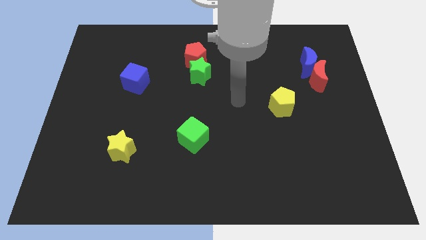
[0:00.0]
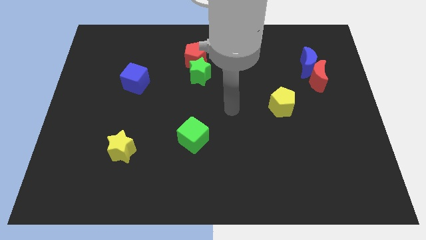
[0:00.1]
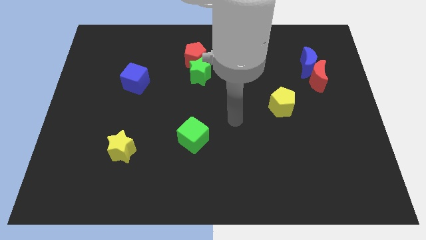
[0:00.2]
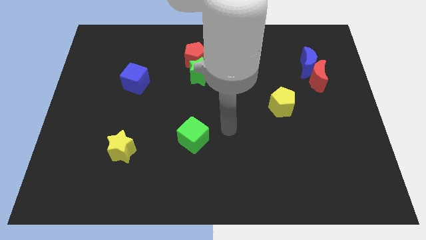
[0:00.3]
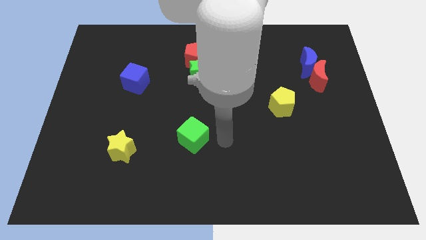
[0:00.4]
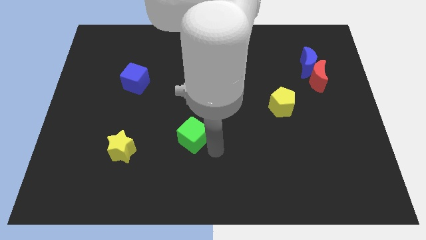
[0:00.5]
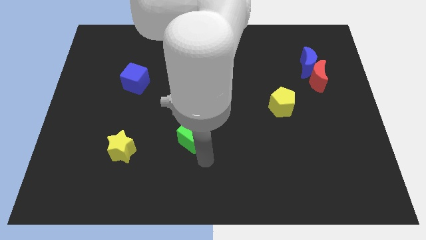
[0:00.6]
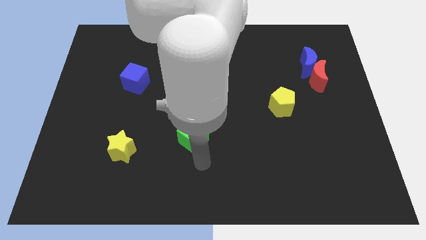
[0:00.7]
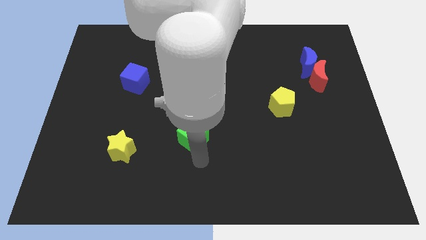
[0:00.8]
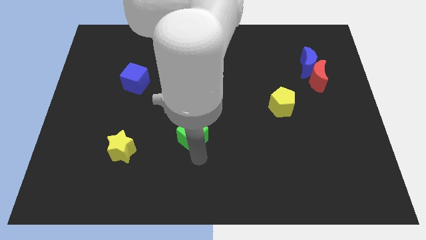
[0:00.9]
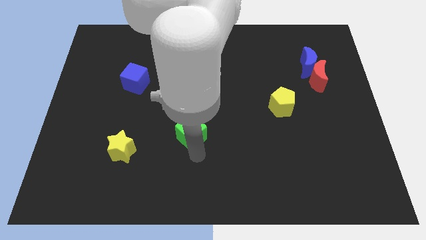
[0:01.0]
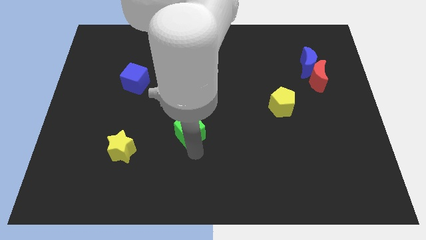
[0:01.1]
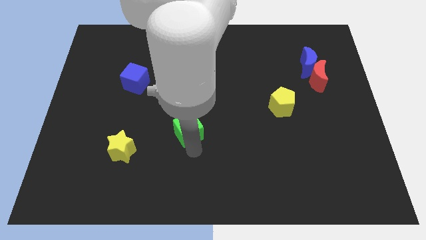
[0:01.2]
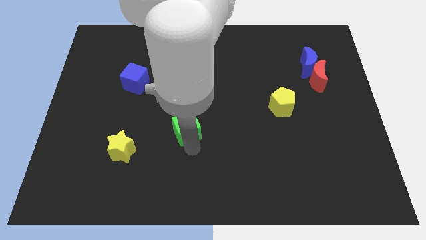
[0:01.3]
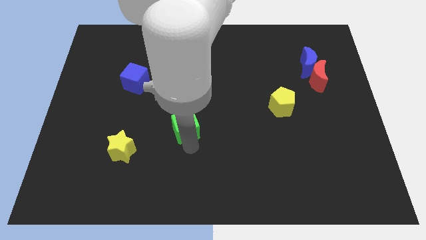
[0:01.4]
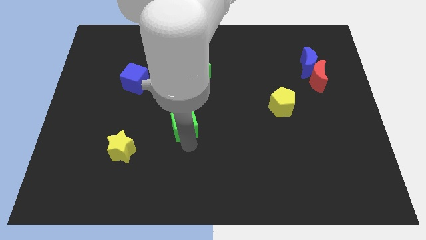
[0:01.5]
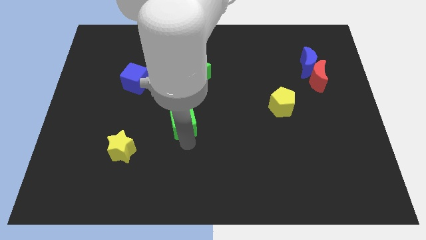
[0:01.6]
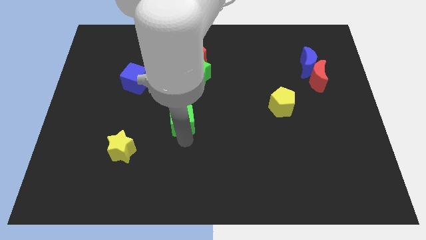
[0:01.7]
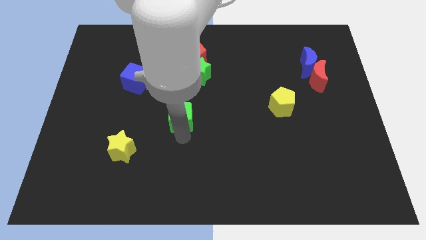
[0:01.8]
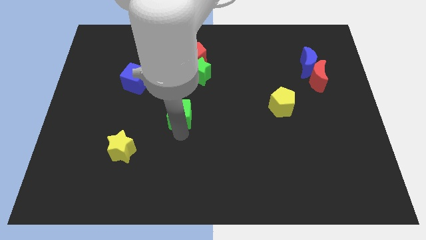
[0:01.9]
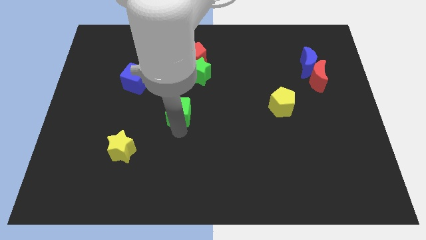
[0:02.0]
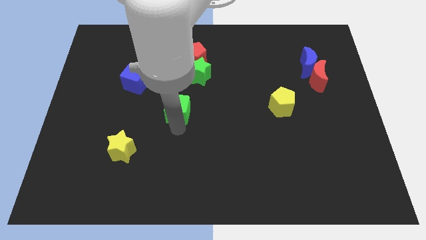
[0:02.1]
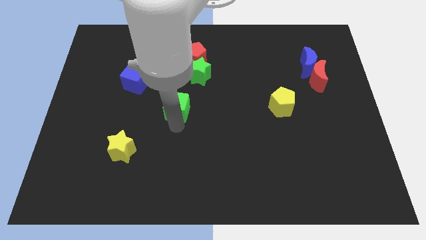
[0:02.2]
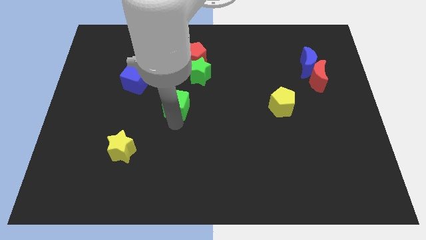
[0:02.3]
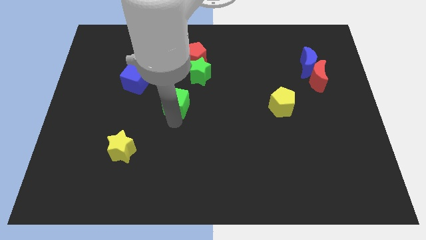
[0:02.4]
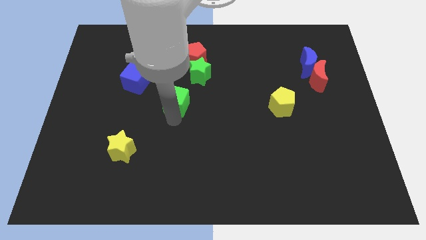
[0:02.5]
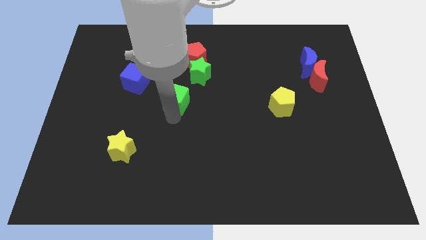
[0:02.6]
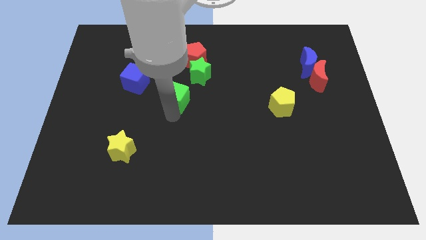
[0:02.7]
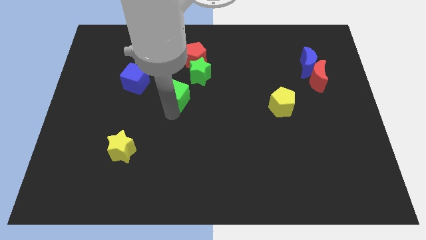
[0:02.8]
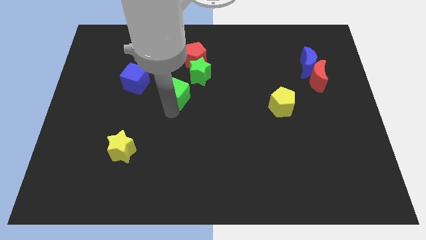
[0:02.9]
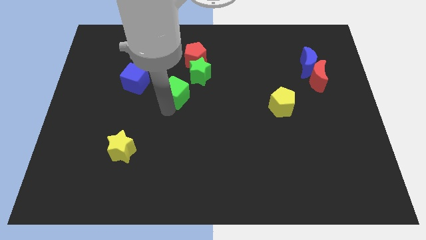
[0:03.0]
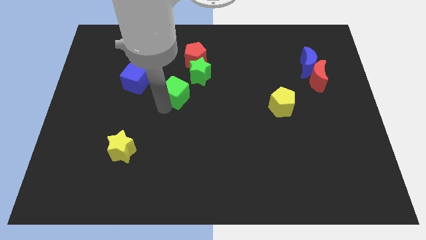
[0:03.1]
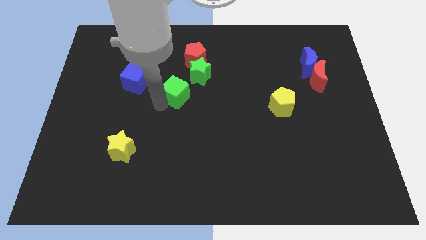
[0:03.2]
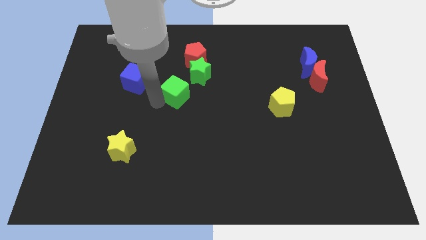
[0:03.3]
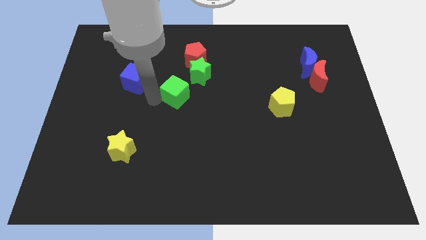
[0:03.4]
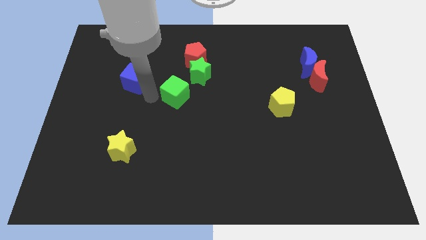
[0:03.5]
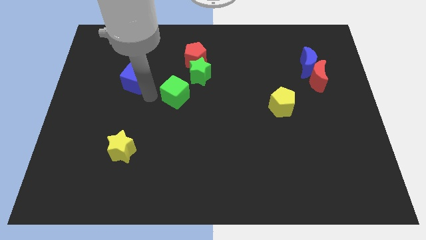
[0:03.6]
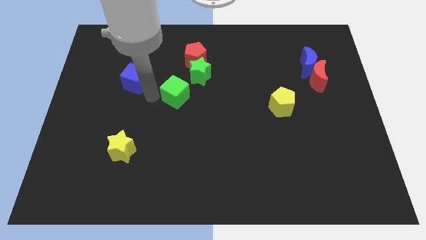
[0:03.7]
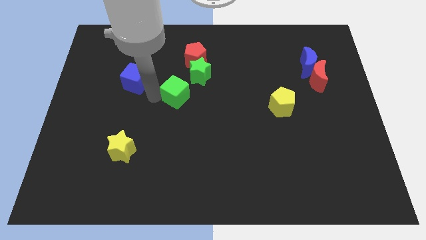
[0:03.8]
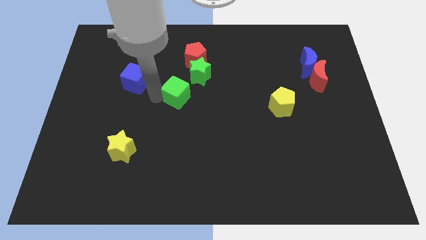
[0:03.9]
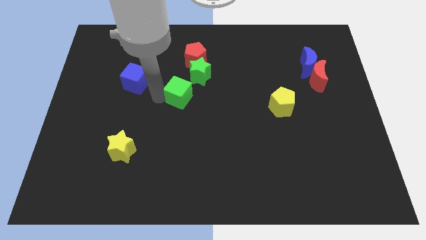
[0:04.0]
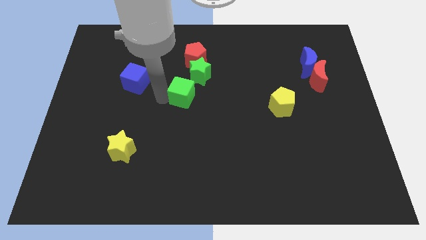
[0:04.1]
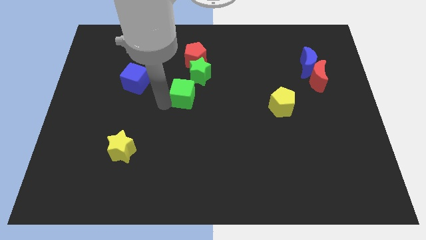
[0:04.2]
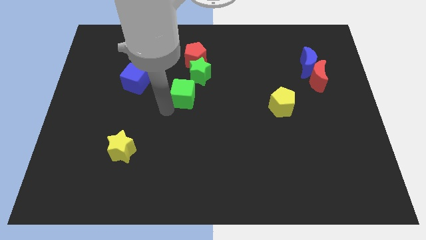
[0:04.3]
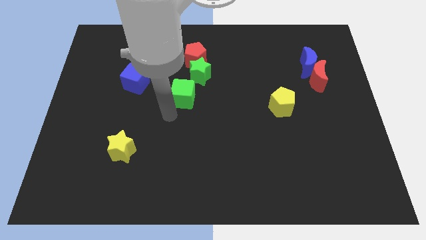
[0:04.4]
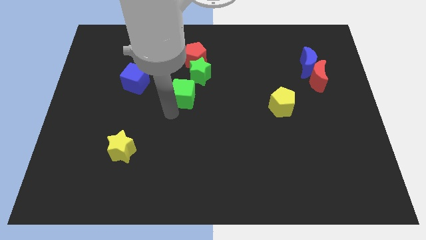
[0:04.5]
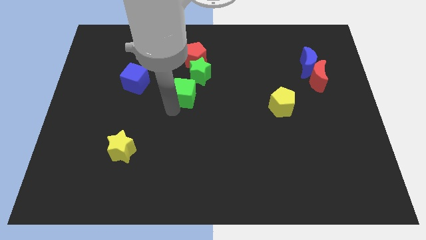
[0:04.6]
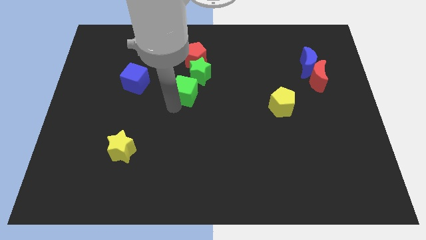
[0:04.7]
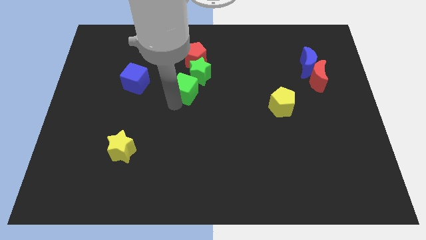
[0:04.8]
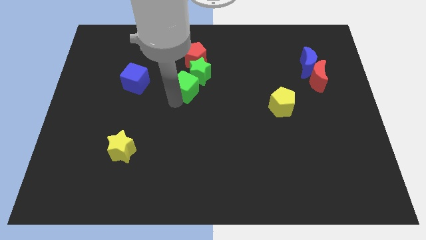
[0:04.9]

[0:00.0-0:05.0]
slide the green cube towards the green star

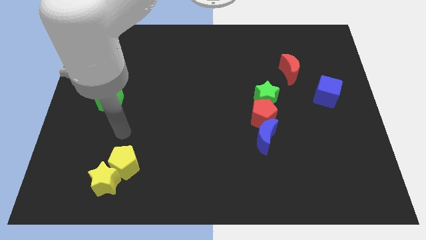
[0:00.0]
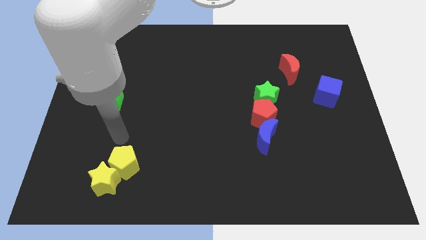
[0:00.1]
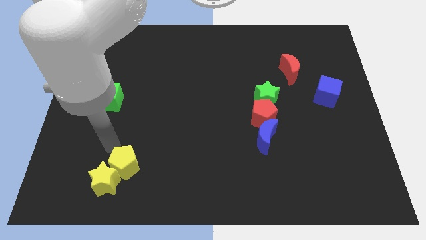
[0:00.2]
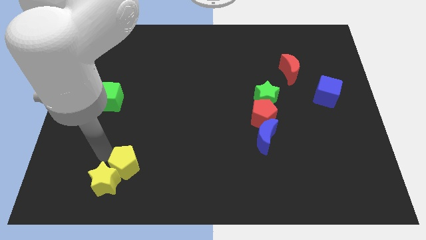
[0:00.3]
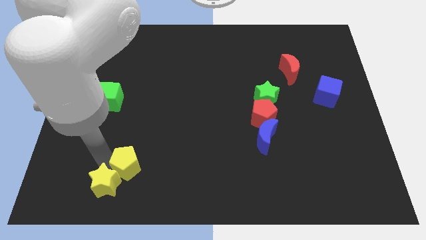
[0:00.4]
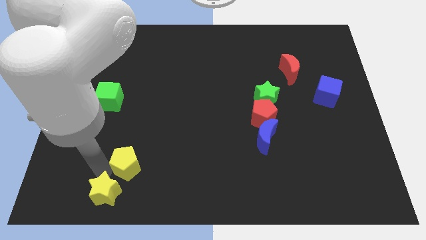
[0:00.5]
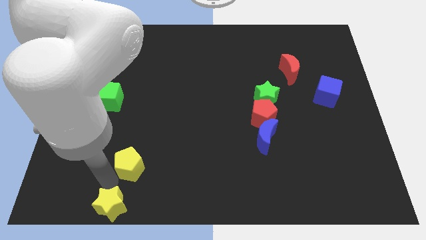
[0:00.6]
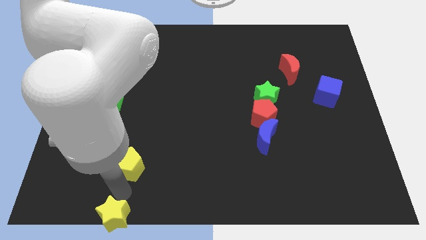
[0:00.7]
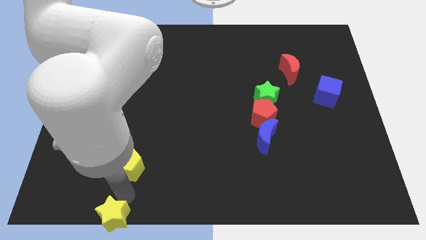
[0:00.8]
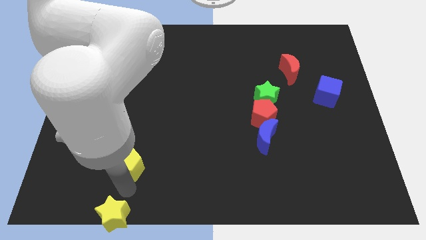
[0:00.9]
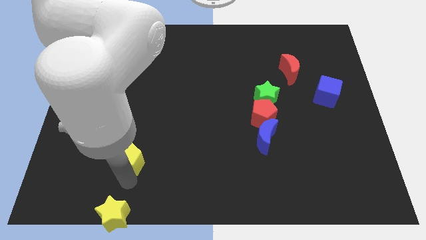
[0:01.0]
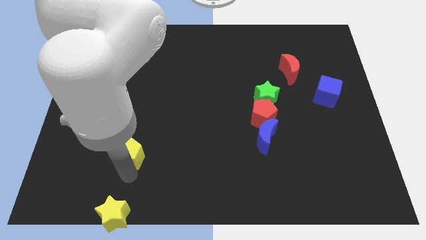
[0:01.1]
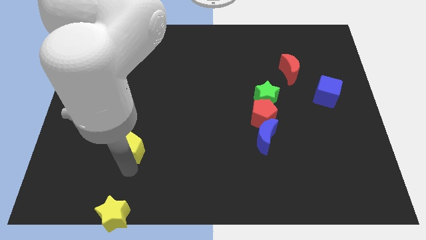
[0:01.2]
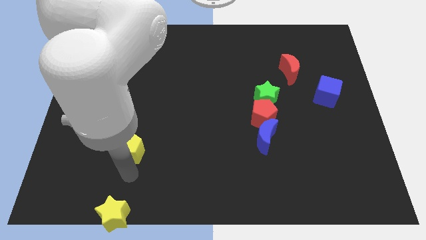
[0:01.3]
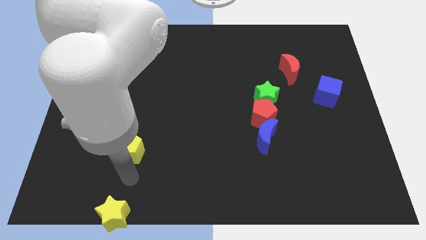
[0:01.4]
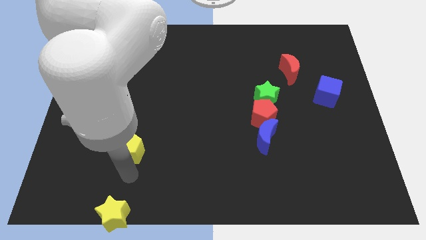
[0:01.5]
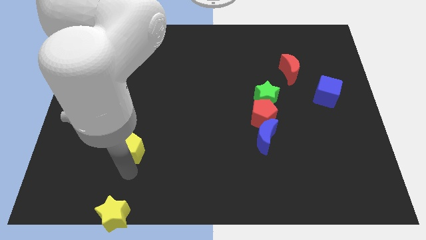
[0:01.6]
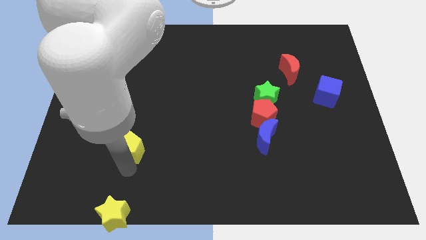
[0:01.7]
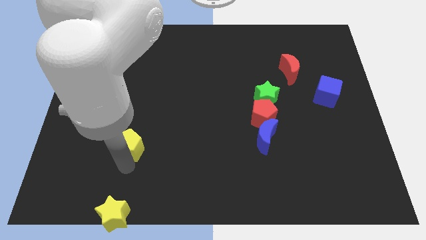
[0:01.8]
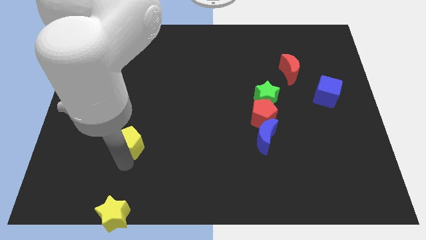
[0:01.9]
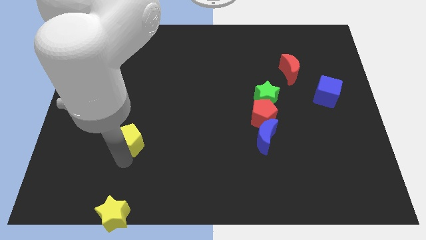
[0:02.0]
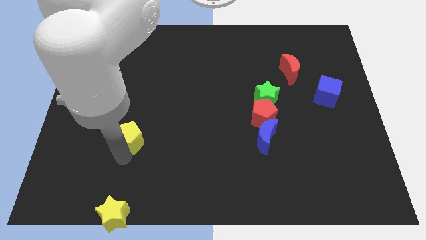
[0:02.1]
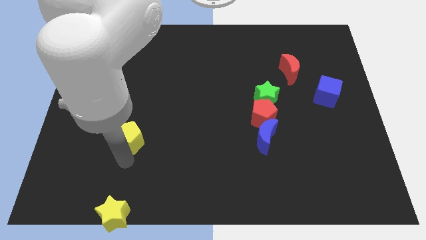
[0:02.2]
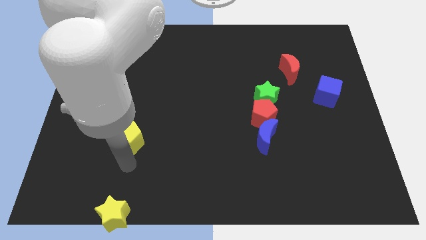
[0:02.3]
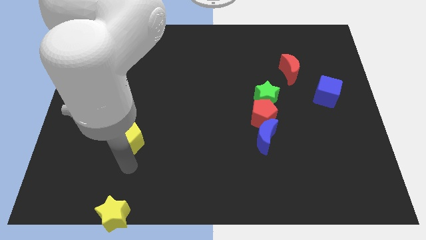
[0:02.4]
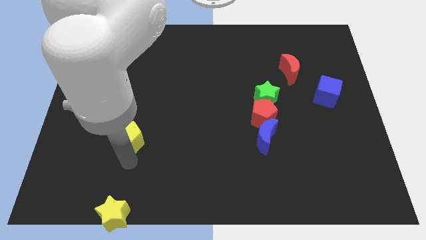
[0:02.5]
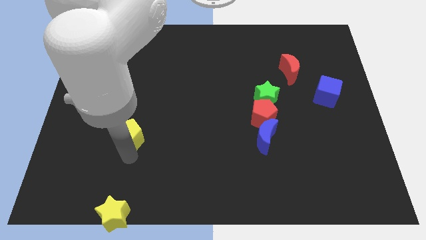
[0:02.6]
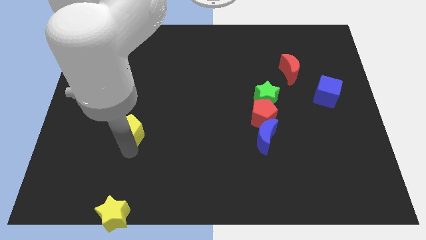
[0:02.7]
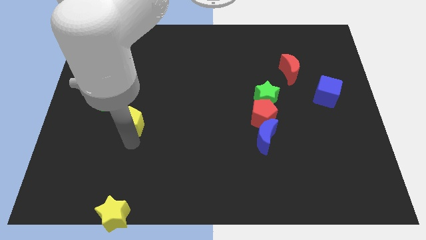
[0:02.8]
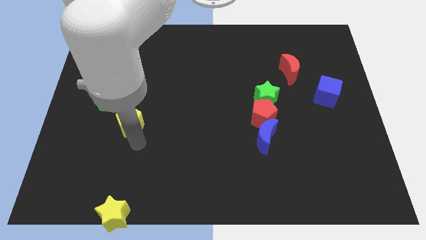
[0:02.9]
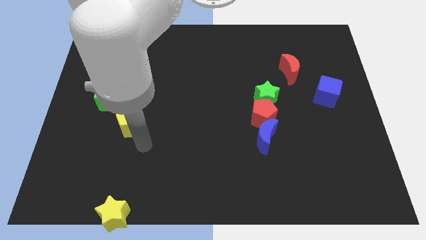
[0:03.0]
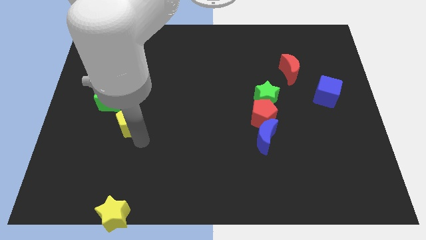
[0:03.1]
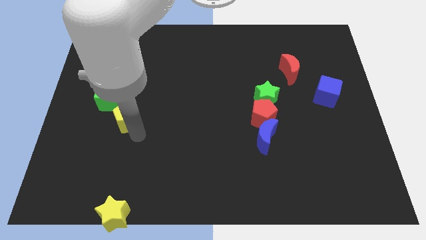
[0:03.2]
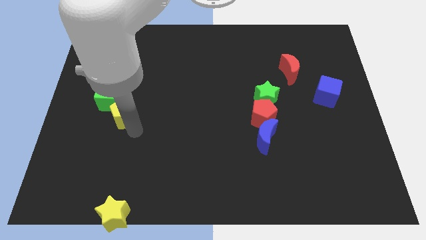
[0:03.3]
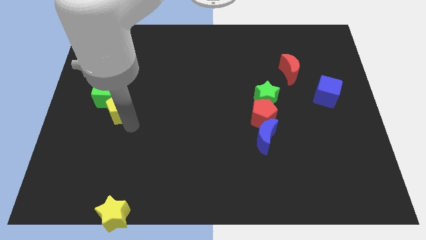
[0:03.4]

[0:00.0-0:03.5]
push the yellow pentagon towards the green cube
